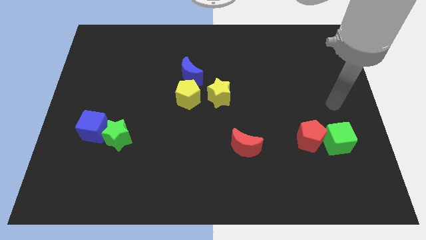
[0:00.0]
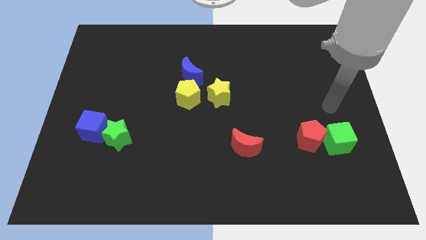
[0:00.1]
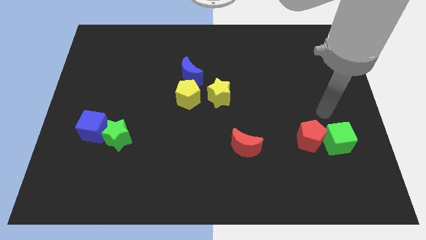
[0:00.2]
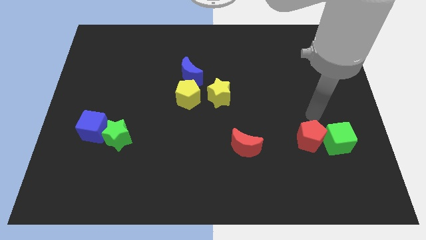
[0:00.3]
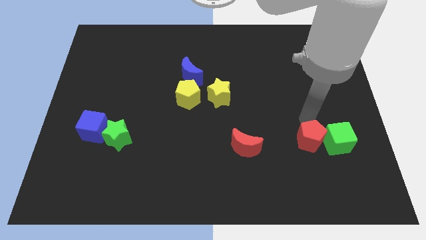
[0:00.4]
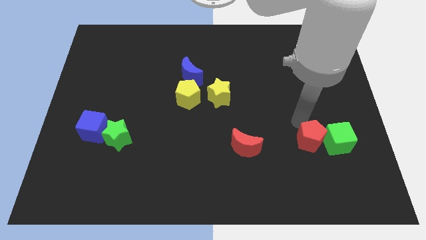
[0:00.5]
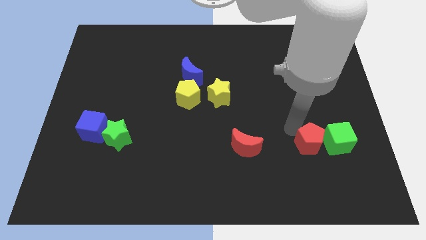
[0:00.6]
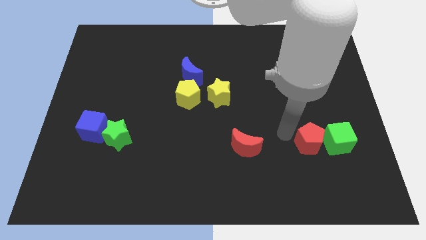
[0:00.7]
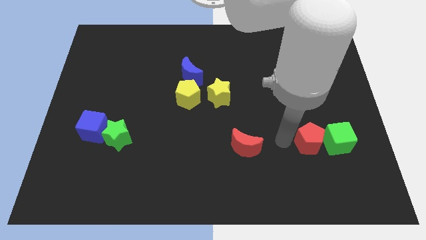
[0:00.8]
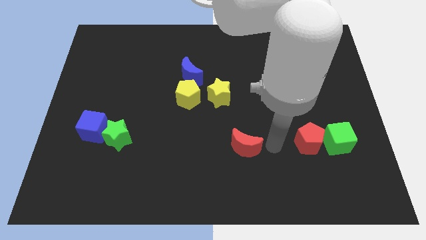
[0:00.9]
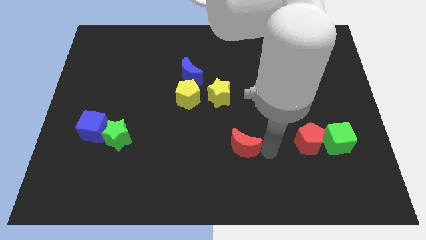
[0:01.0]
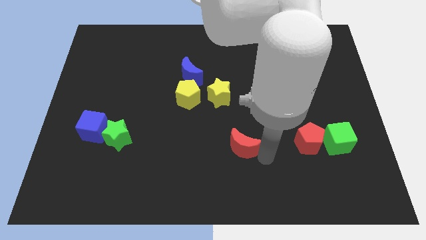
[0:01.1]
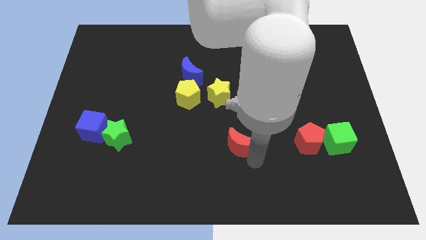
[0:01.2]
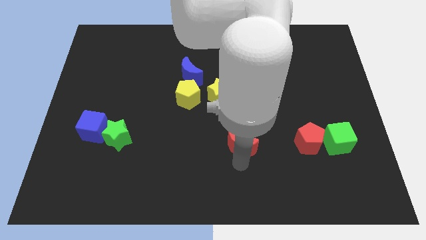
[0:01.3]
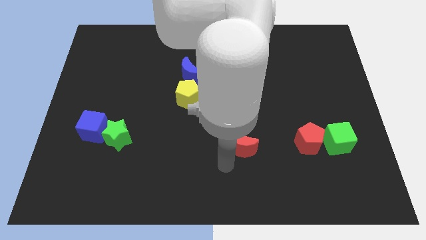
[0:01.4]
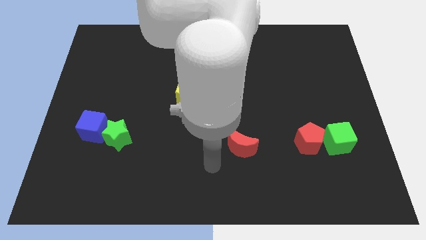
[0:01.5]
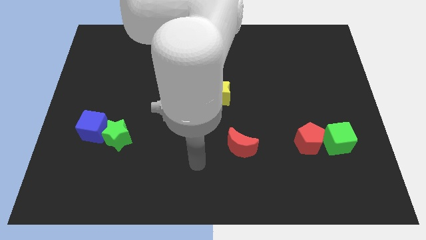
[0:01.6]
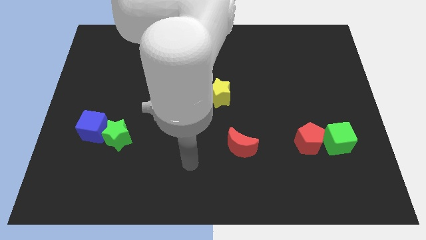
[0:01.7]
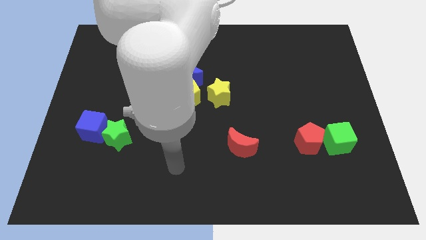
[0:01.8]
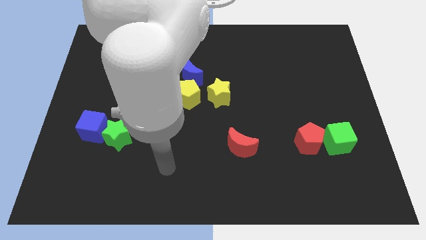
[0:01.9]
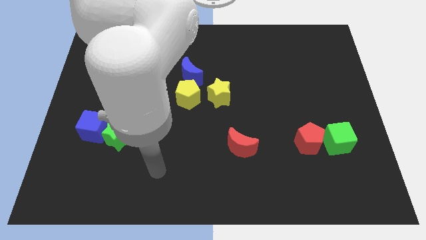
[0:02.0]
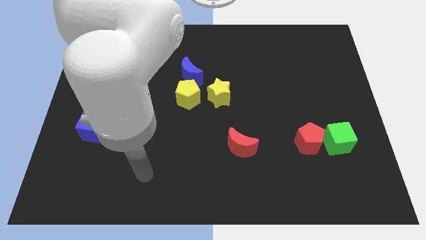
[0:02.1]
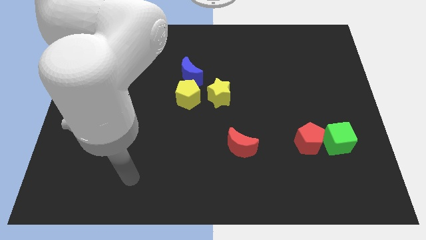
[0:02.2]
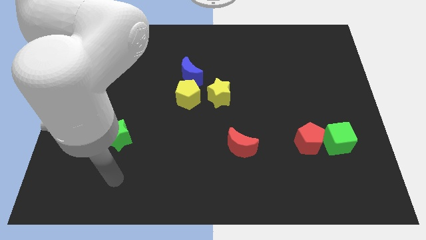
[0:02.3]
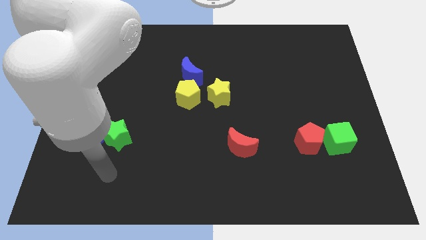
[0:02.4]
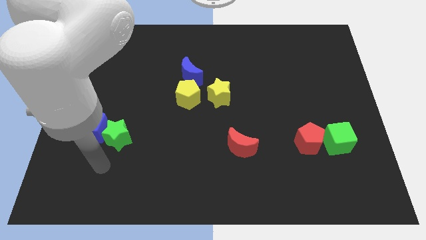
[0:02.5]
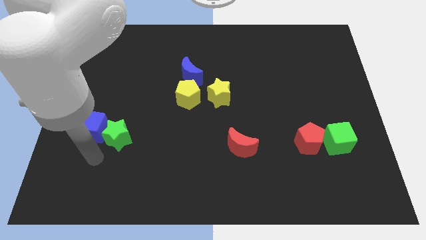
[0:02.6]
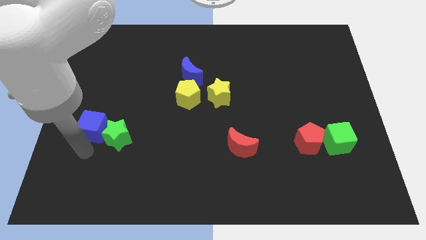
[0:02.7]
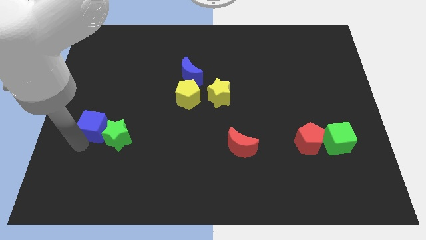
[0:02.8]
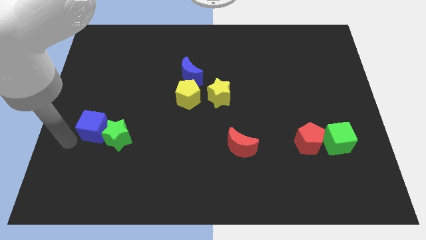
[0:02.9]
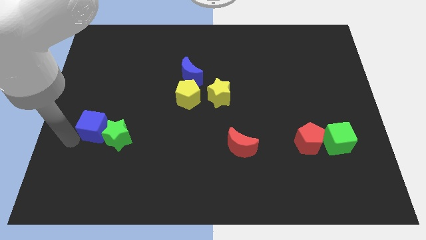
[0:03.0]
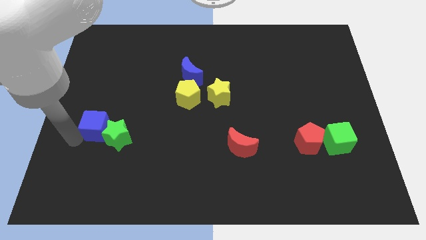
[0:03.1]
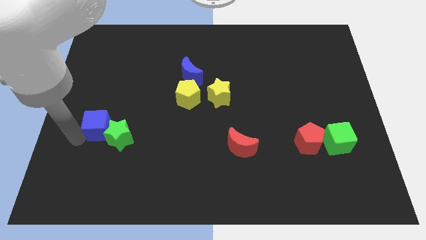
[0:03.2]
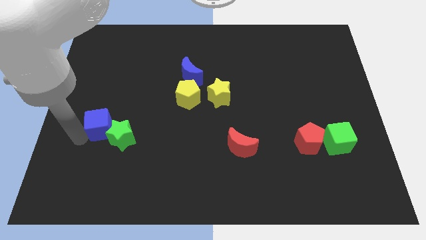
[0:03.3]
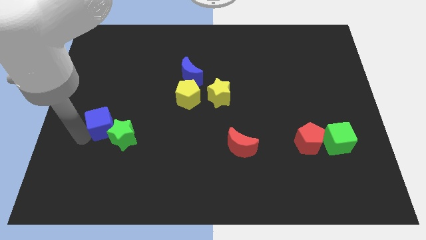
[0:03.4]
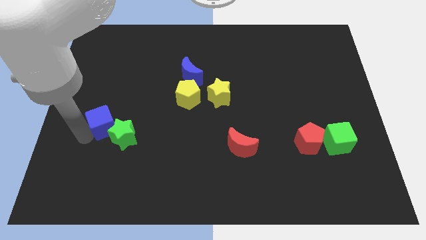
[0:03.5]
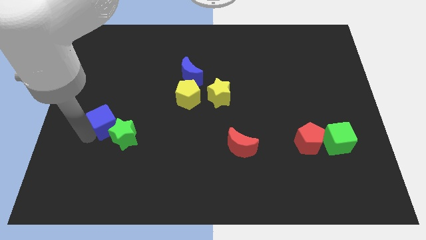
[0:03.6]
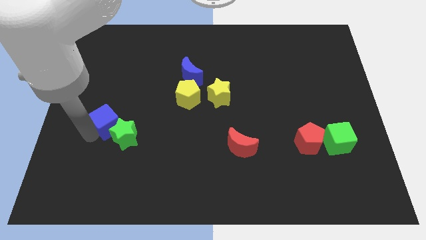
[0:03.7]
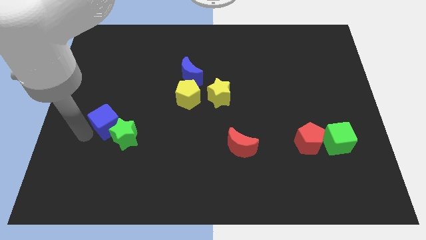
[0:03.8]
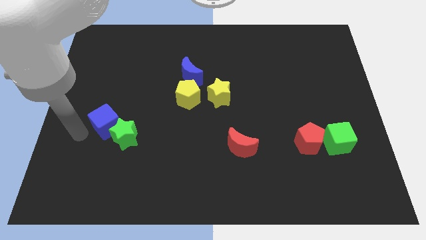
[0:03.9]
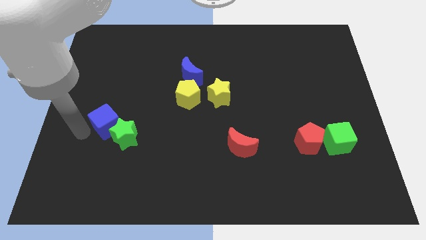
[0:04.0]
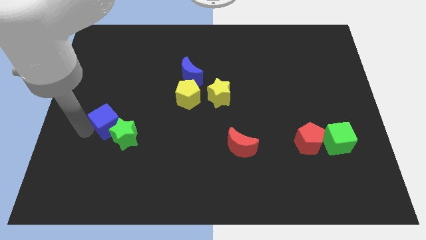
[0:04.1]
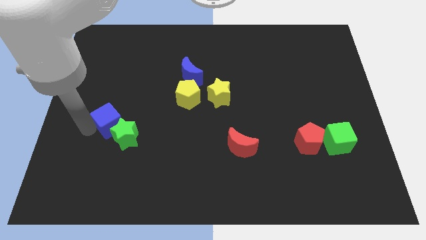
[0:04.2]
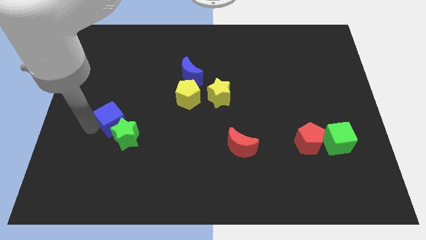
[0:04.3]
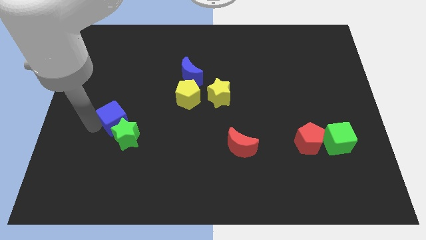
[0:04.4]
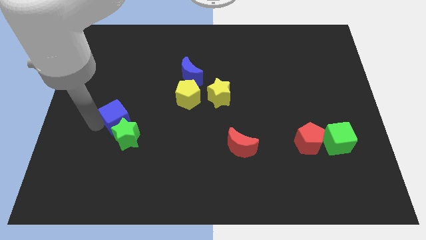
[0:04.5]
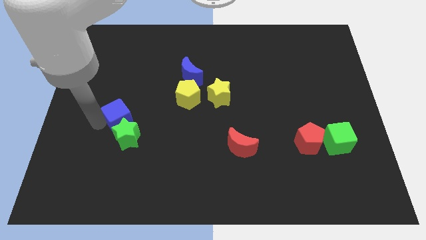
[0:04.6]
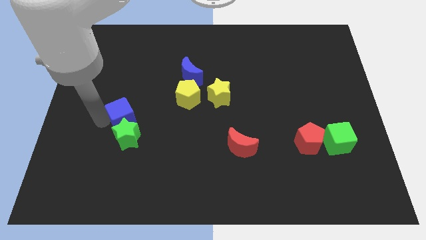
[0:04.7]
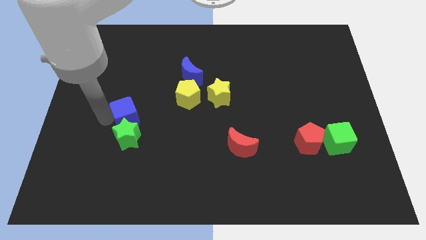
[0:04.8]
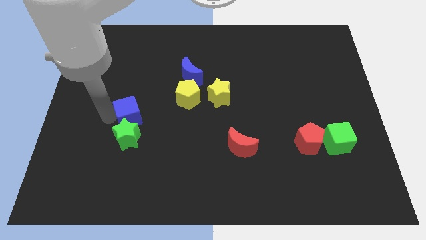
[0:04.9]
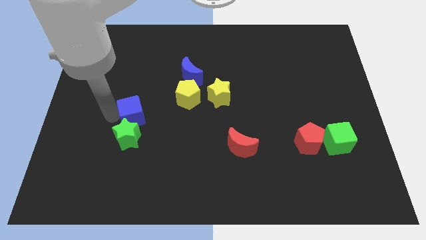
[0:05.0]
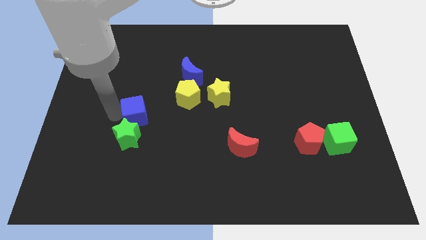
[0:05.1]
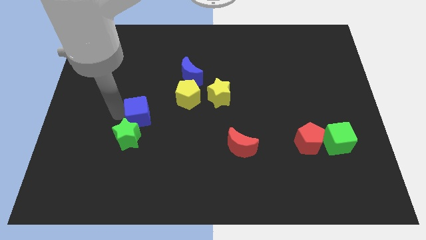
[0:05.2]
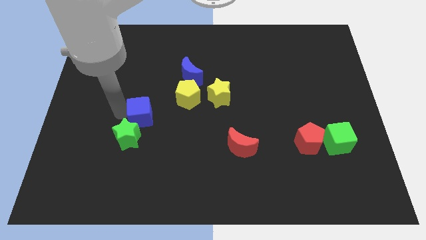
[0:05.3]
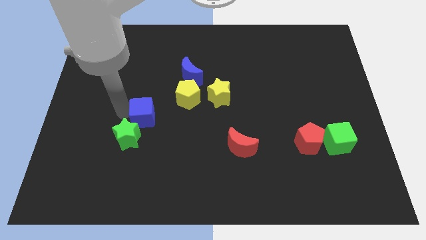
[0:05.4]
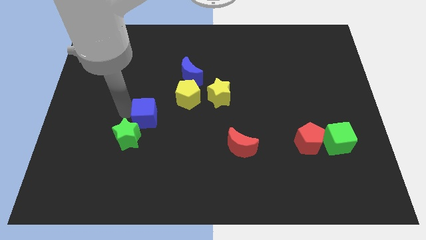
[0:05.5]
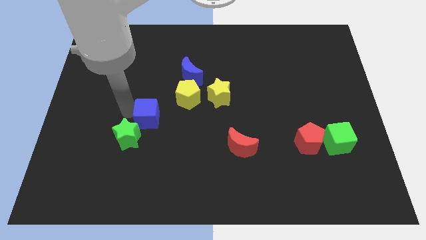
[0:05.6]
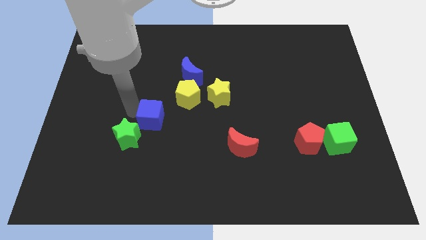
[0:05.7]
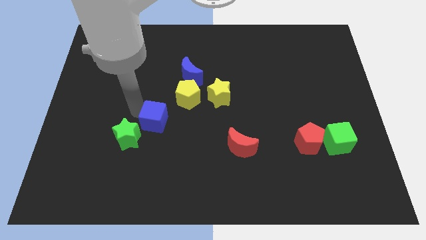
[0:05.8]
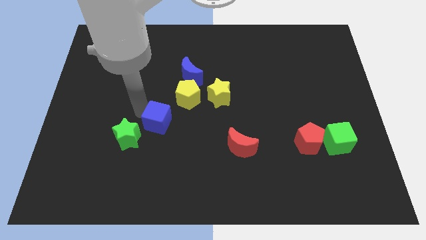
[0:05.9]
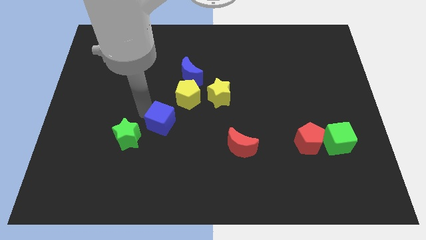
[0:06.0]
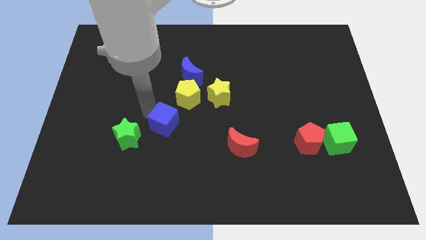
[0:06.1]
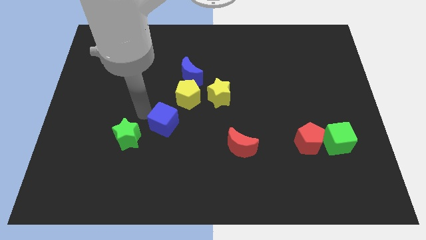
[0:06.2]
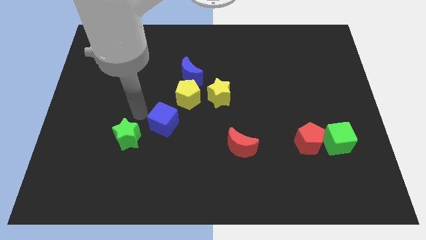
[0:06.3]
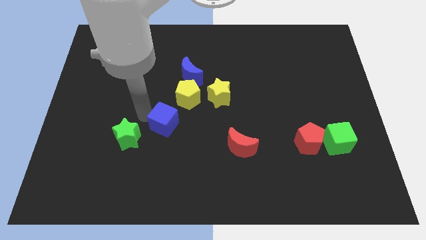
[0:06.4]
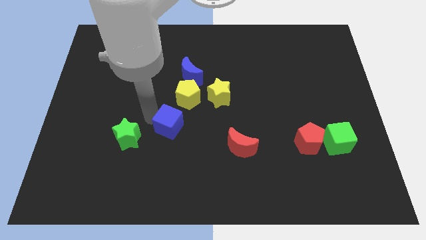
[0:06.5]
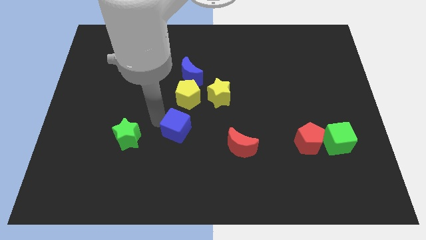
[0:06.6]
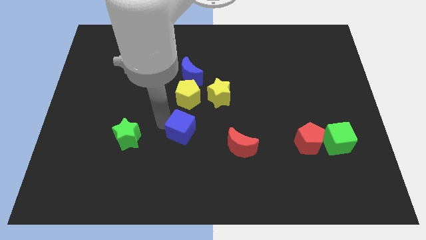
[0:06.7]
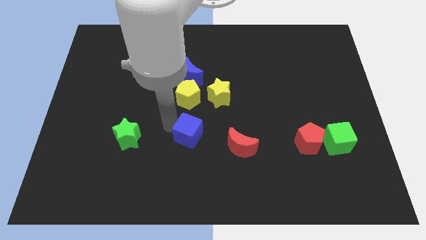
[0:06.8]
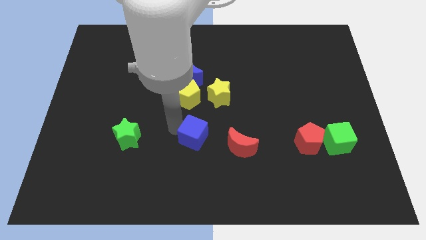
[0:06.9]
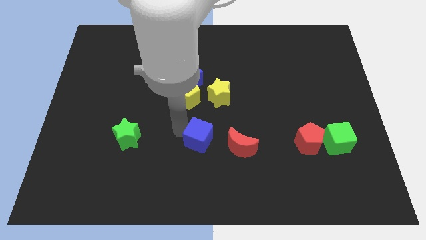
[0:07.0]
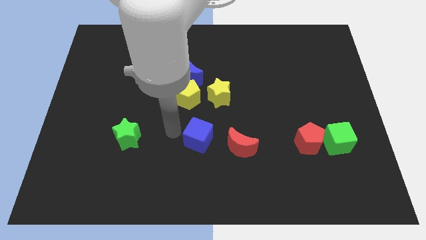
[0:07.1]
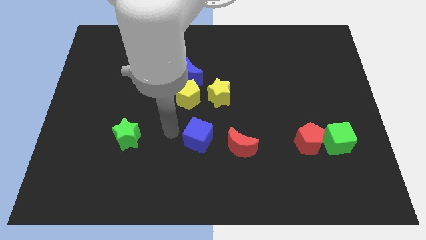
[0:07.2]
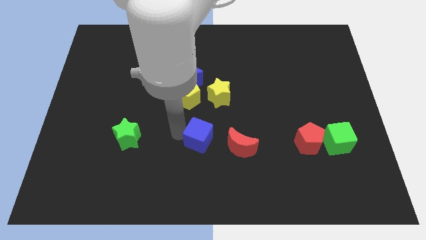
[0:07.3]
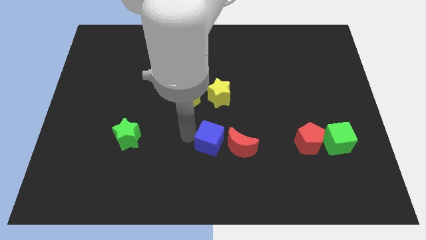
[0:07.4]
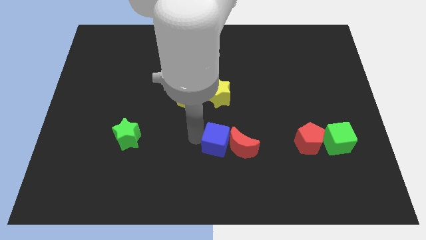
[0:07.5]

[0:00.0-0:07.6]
slide the blue cube close to the red moon

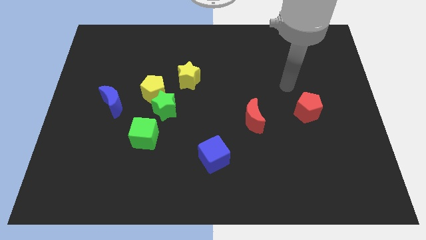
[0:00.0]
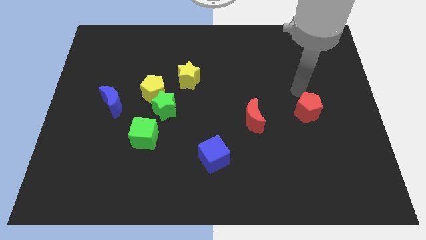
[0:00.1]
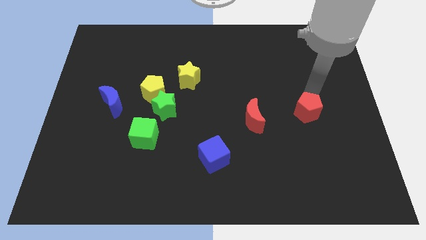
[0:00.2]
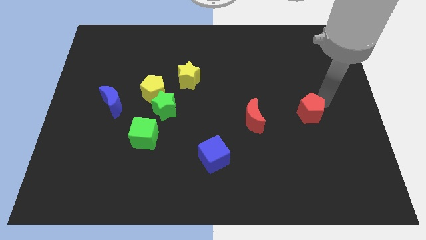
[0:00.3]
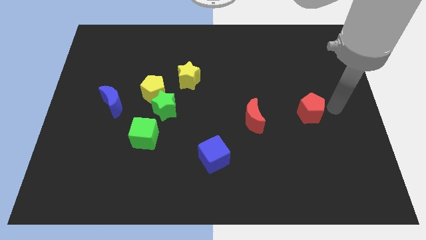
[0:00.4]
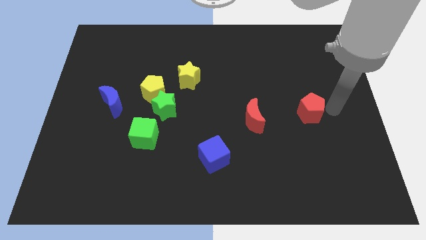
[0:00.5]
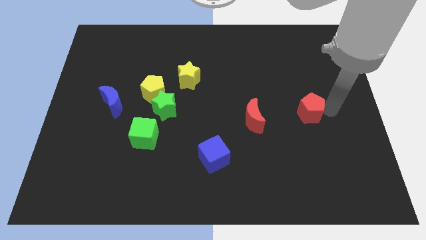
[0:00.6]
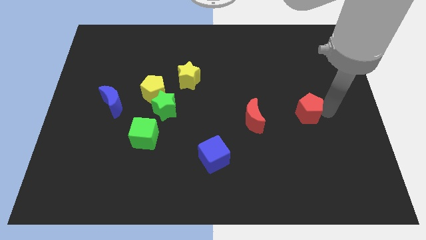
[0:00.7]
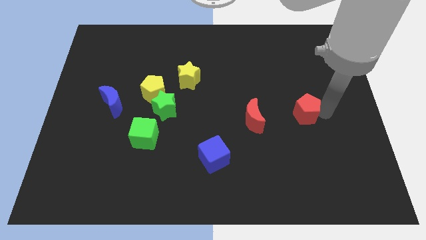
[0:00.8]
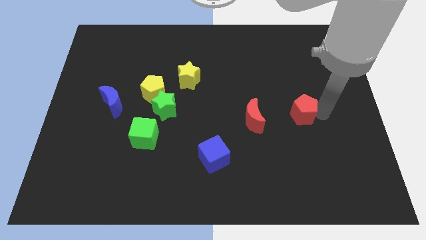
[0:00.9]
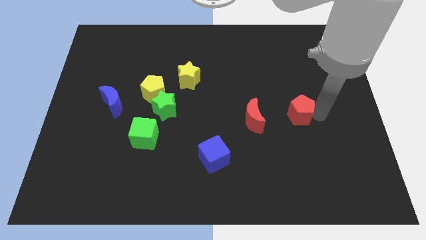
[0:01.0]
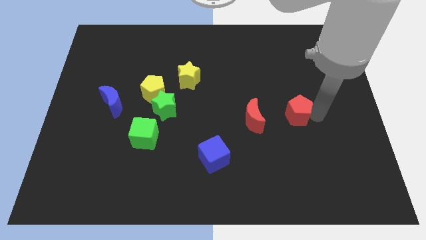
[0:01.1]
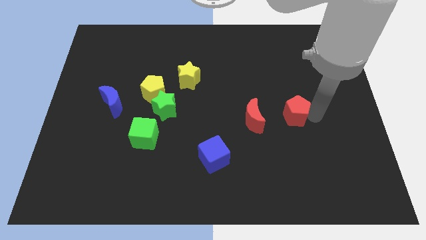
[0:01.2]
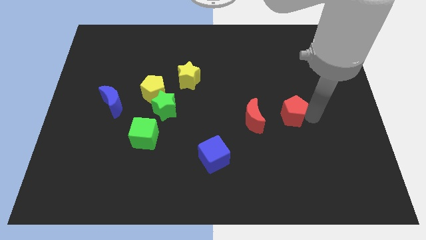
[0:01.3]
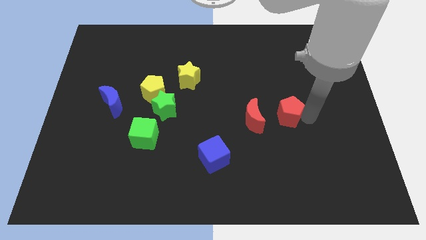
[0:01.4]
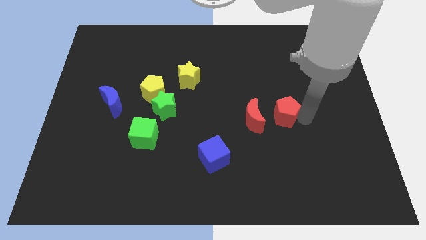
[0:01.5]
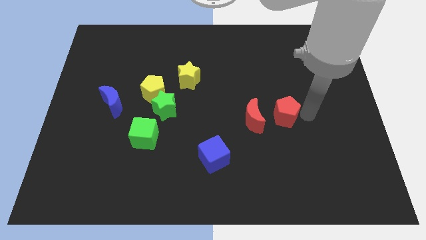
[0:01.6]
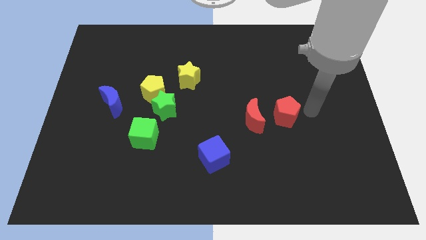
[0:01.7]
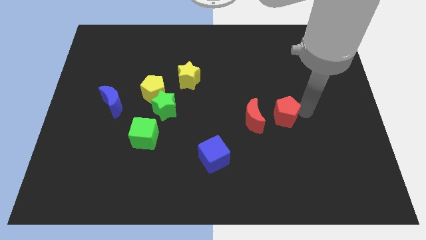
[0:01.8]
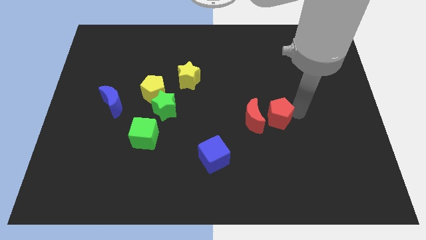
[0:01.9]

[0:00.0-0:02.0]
push the red pentagon towards the red moon
